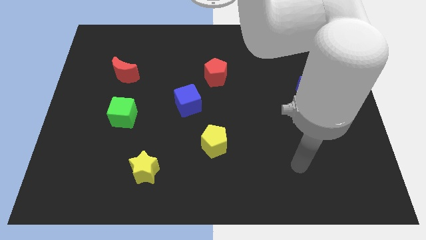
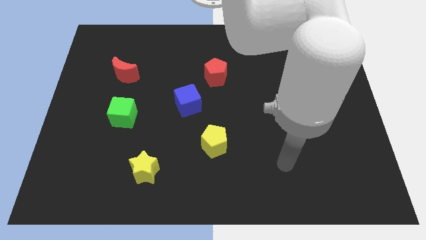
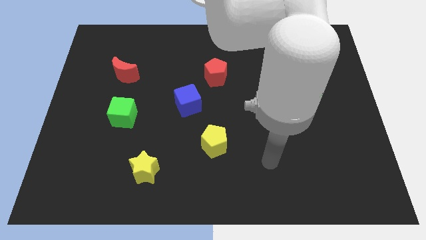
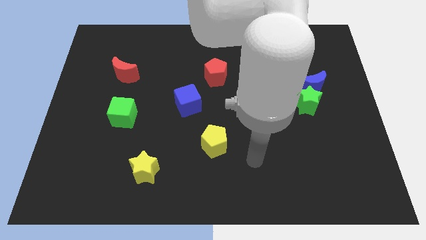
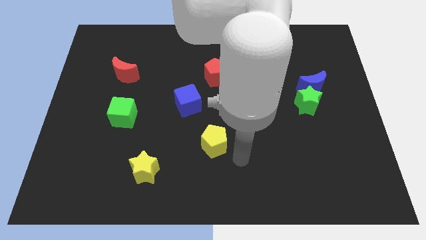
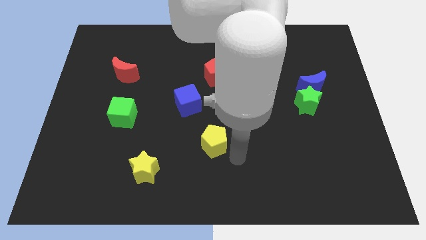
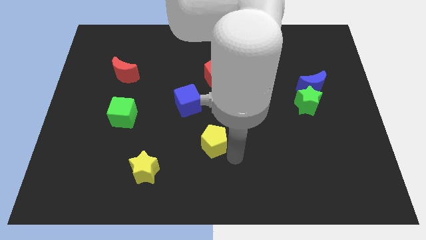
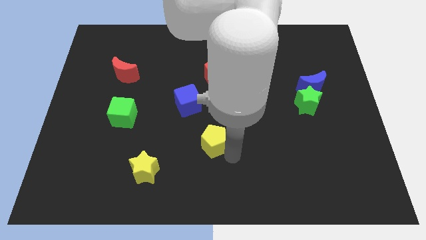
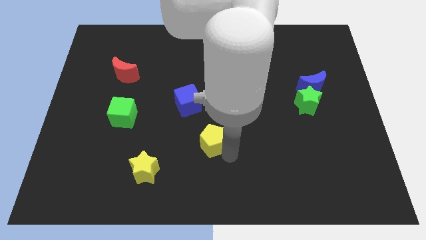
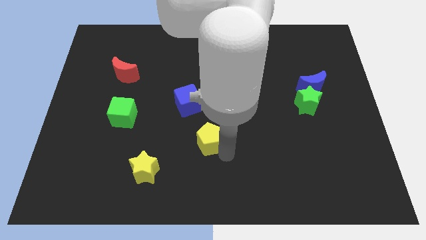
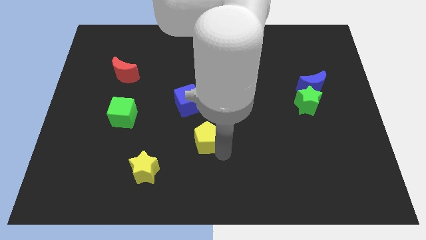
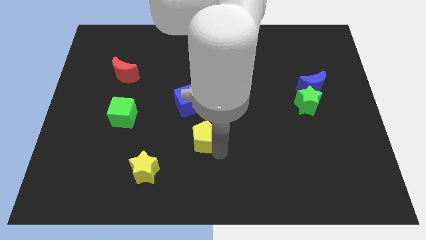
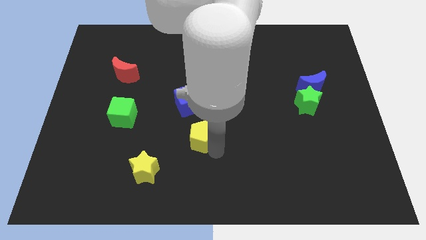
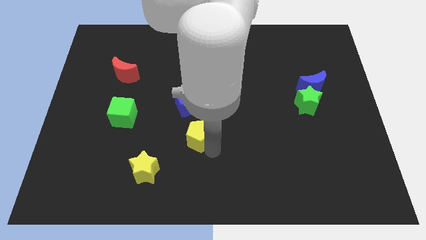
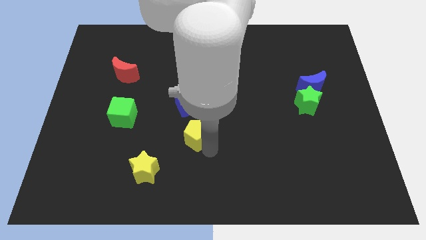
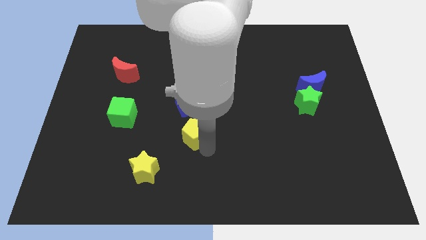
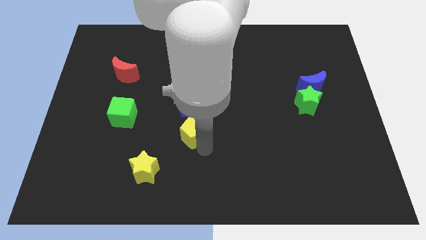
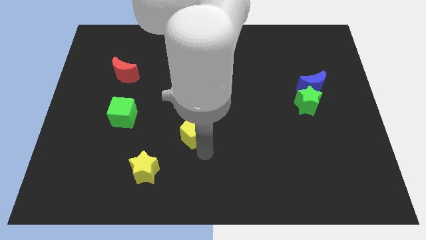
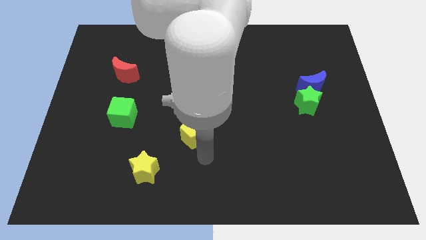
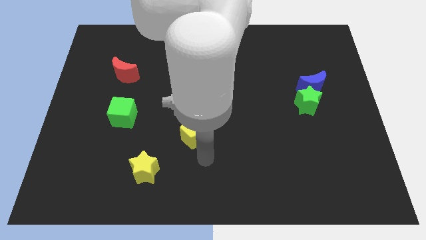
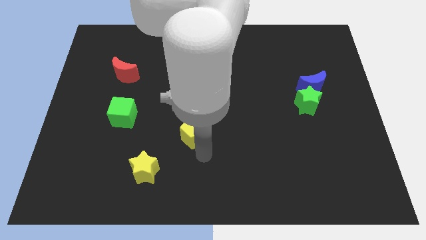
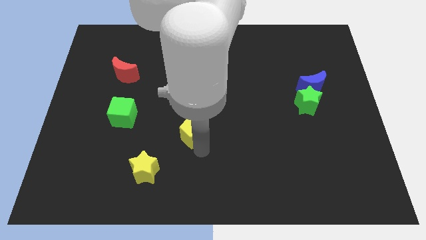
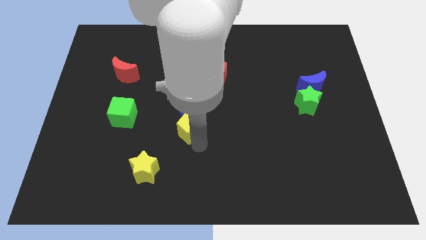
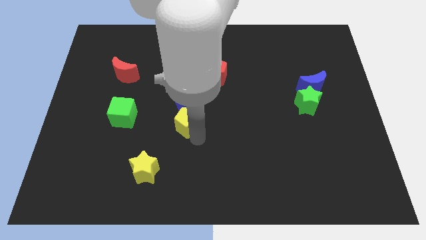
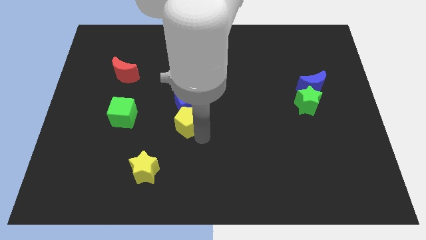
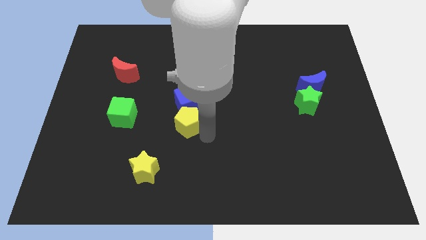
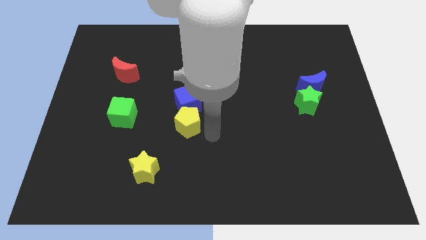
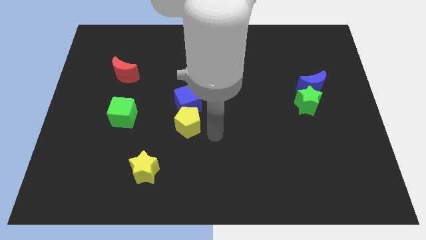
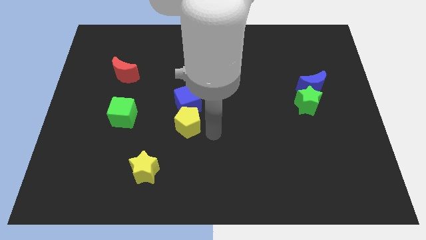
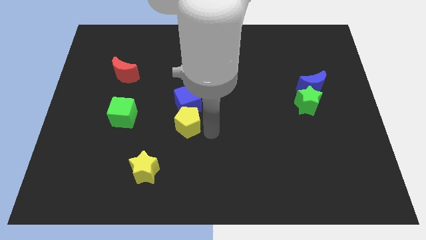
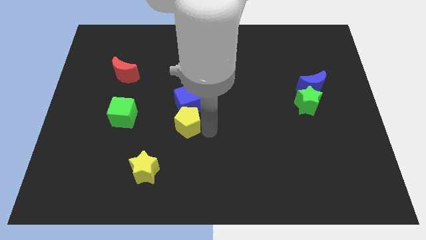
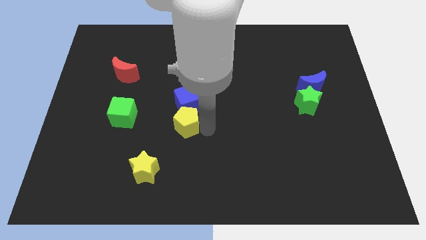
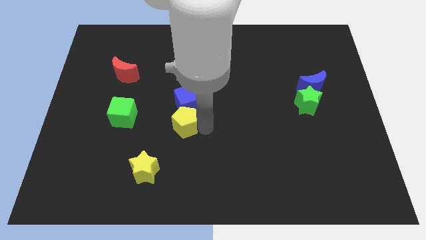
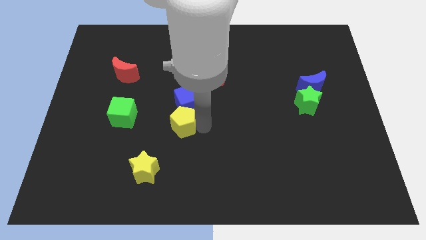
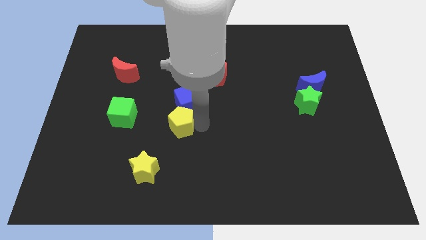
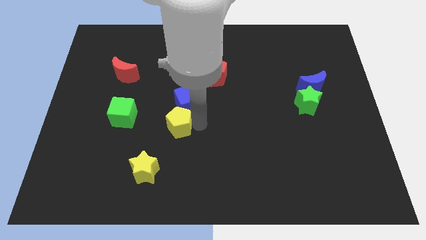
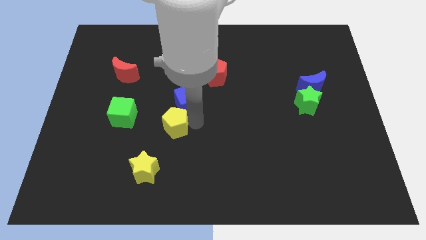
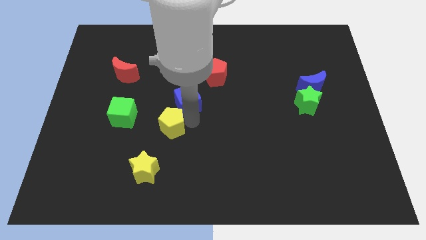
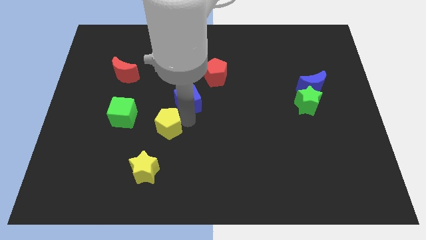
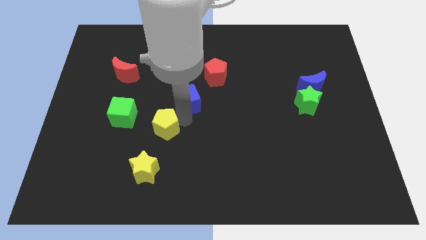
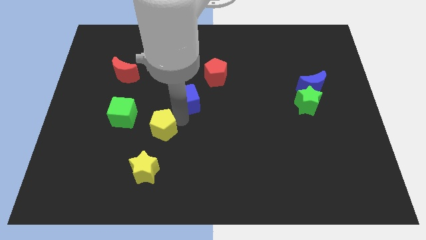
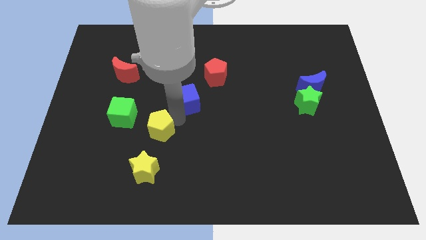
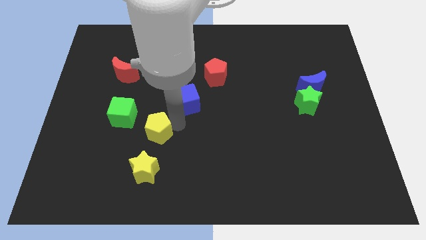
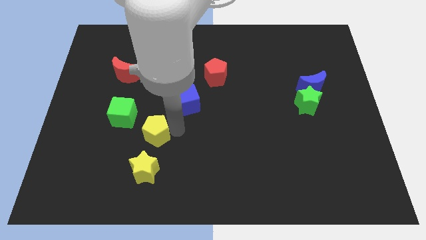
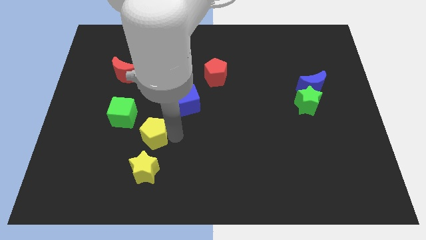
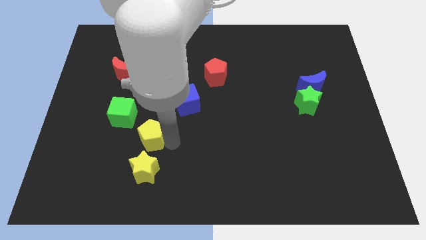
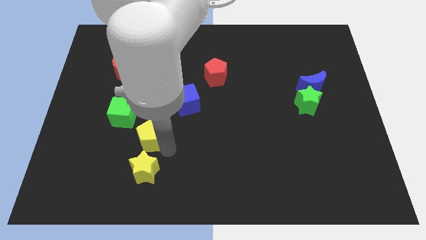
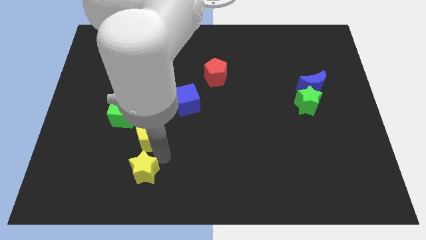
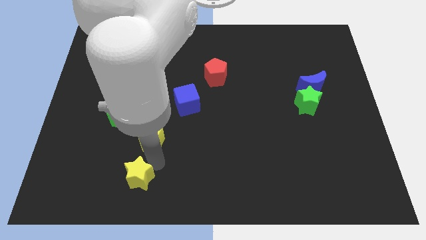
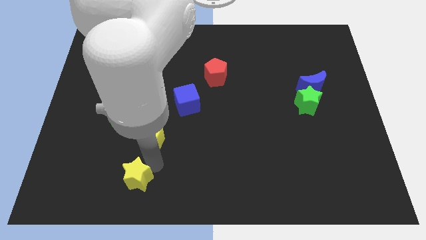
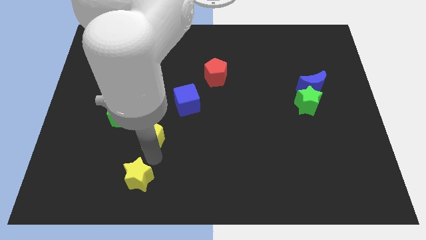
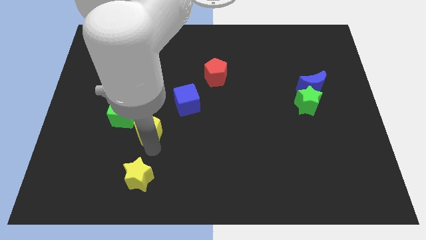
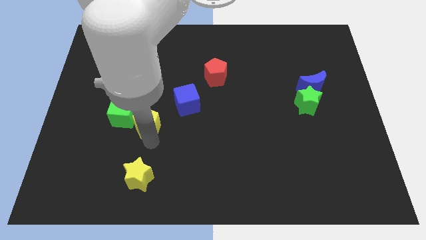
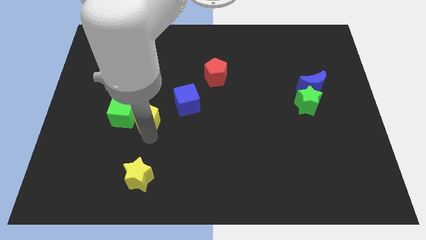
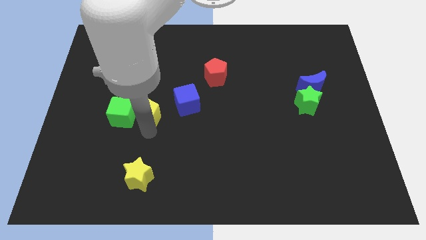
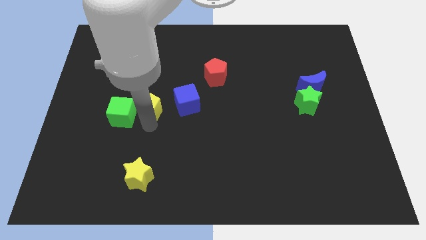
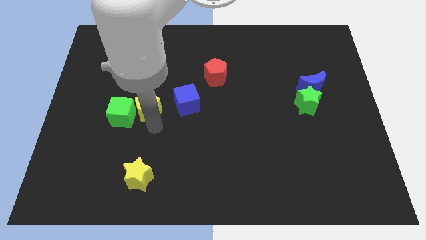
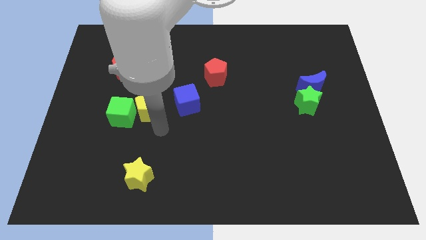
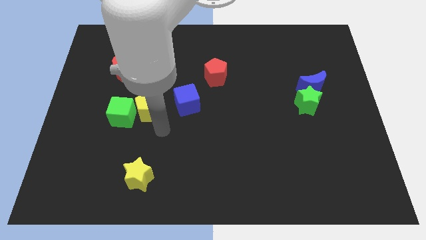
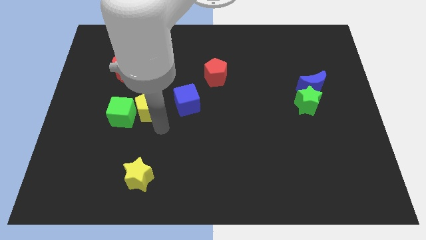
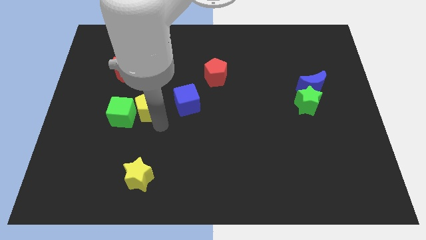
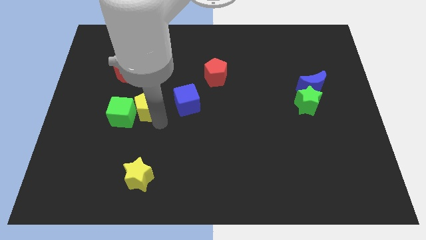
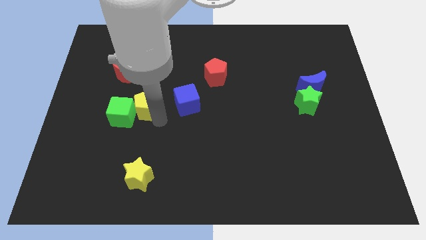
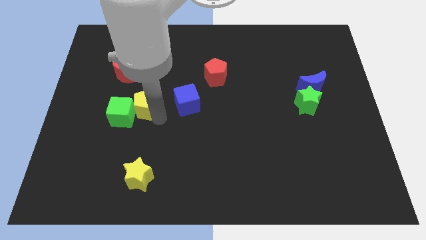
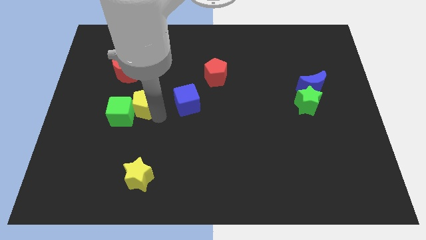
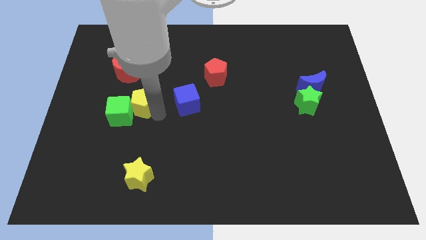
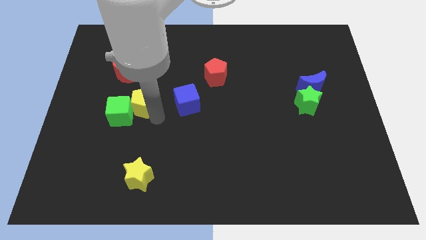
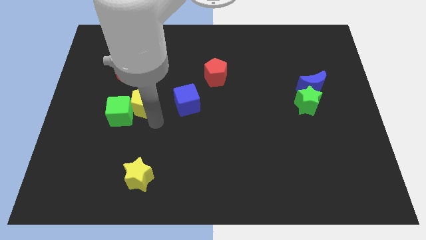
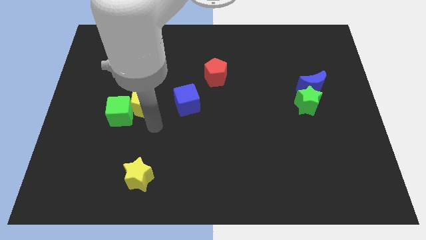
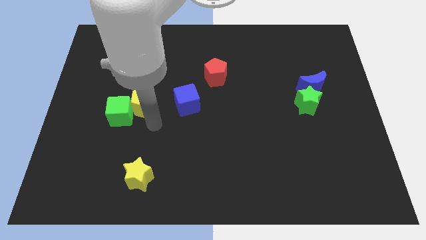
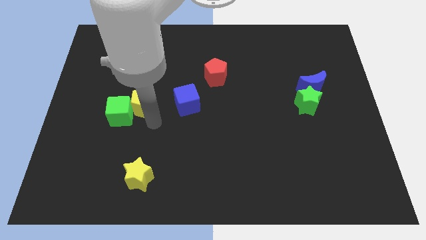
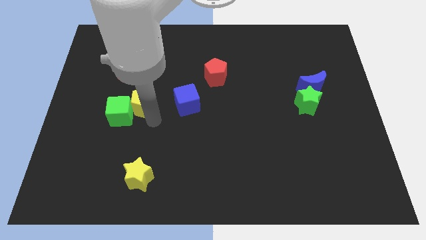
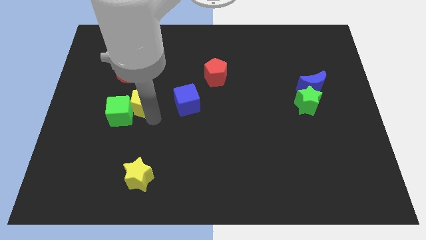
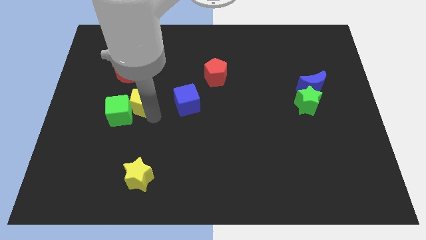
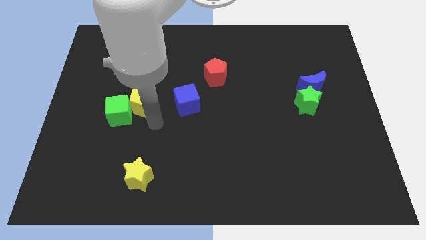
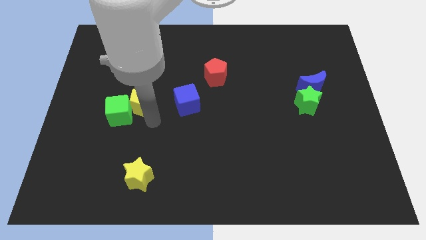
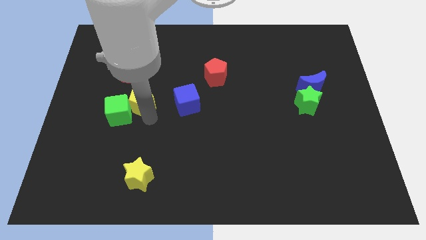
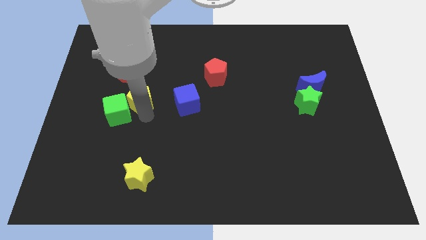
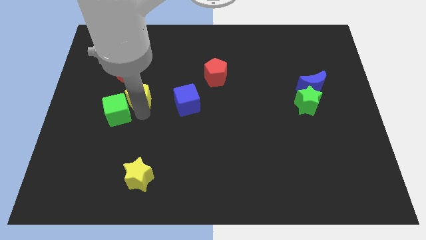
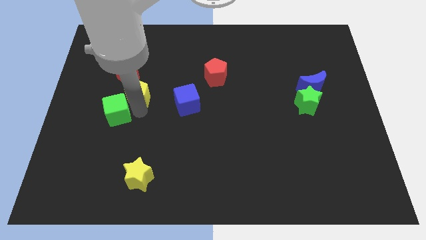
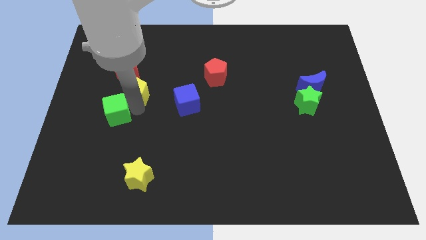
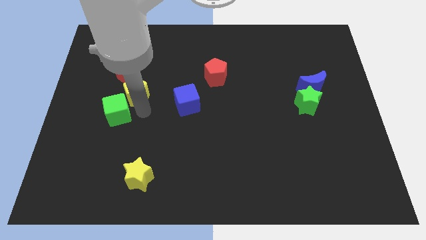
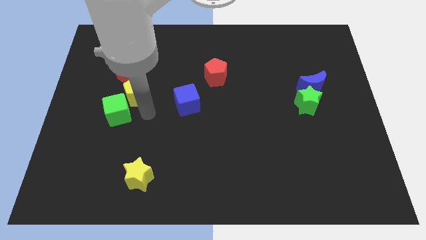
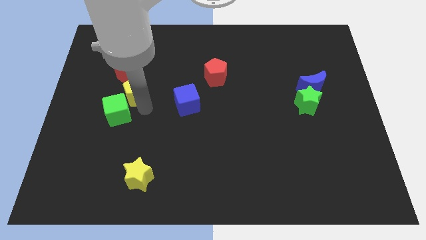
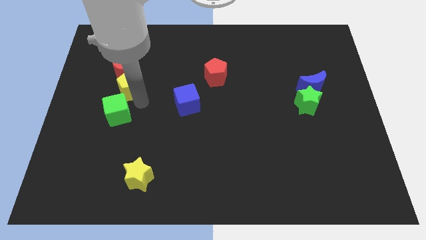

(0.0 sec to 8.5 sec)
put the yellow pentagon to the red moon
